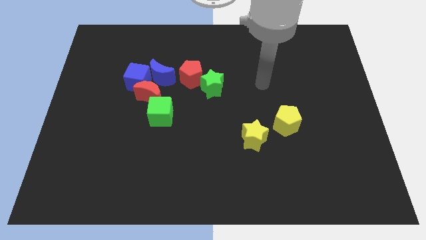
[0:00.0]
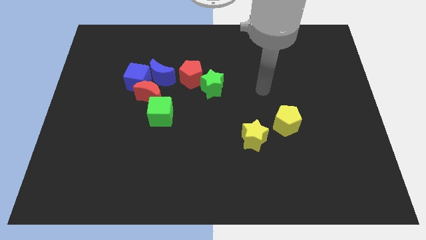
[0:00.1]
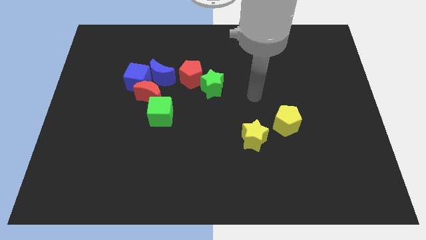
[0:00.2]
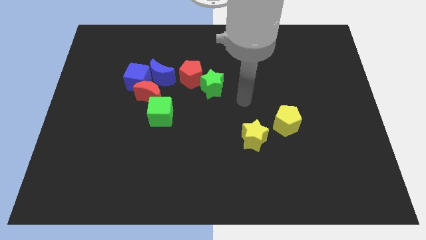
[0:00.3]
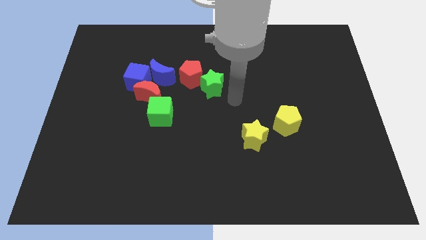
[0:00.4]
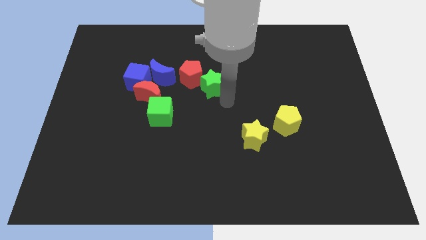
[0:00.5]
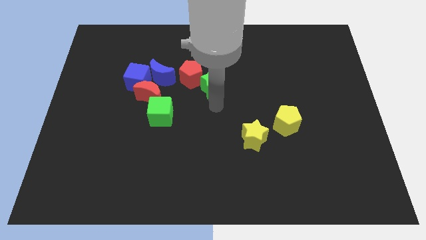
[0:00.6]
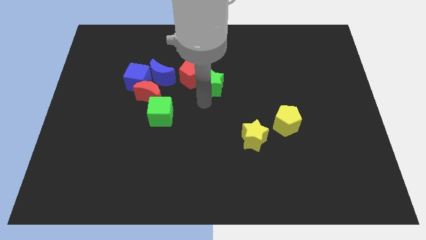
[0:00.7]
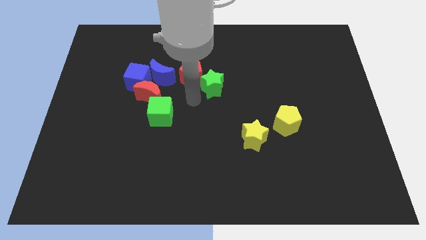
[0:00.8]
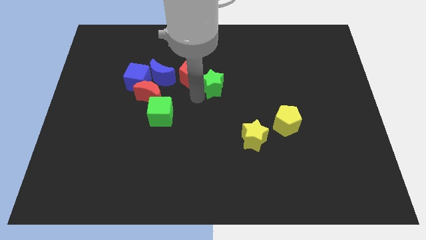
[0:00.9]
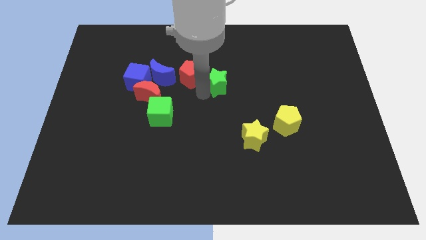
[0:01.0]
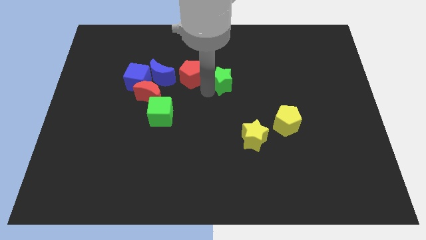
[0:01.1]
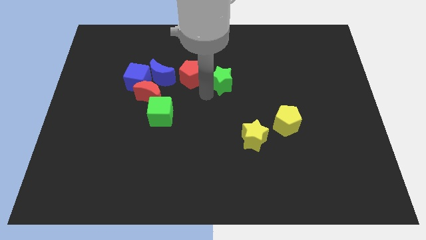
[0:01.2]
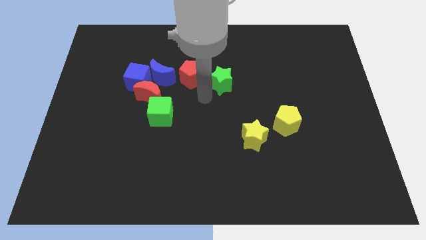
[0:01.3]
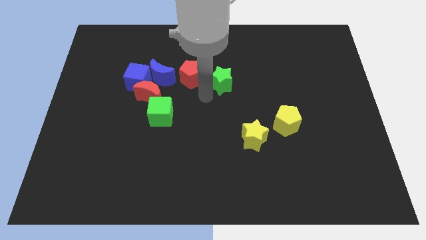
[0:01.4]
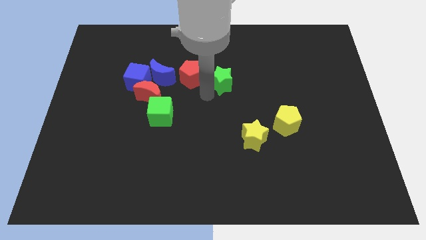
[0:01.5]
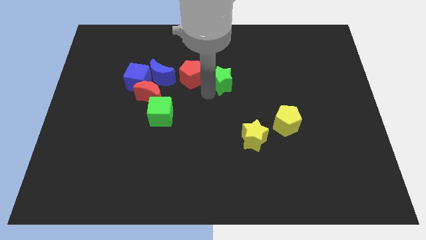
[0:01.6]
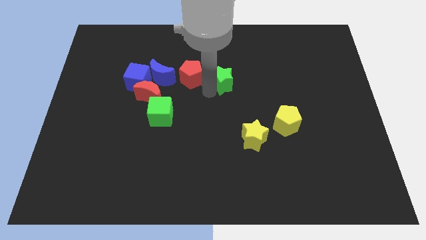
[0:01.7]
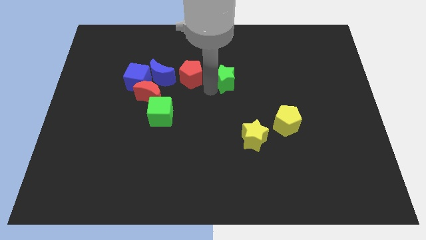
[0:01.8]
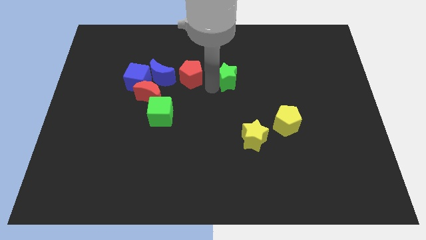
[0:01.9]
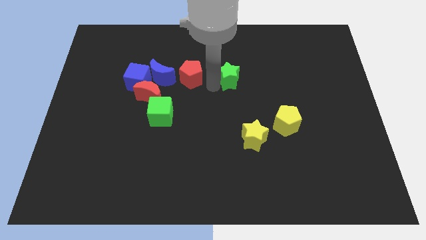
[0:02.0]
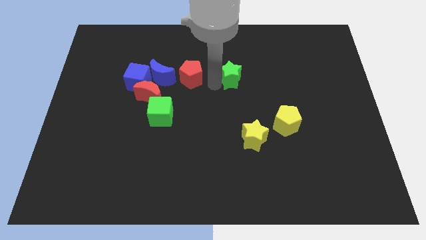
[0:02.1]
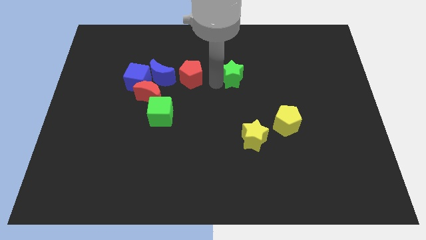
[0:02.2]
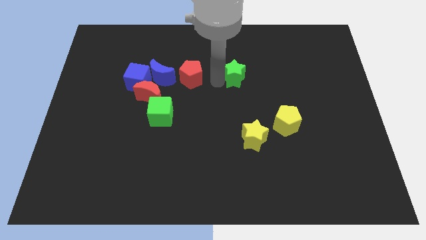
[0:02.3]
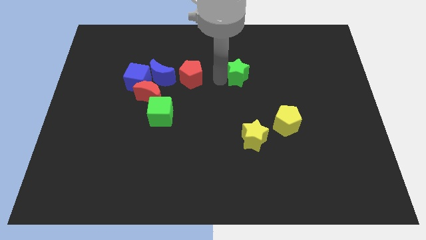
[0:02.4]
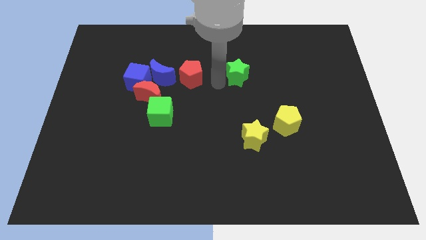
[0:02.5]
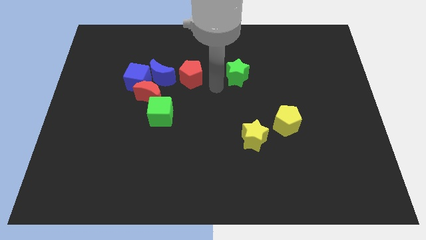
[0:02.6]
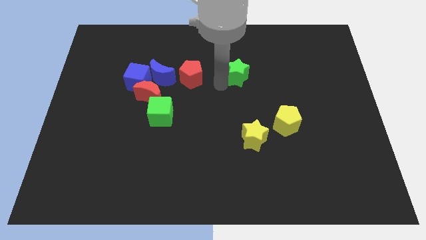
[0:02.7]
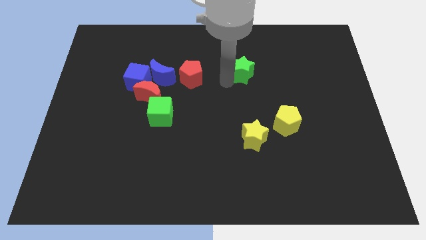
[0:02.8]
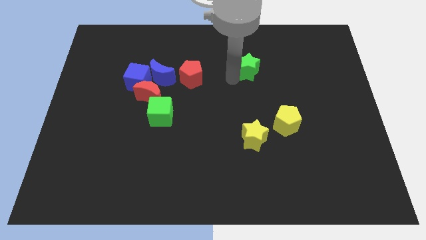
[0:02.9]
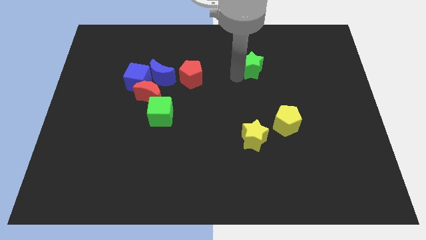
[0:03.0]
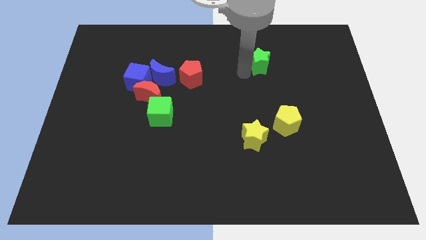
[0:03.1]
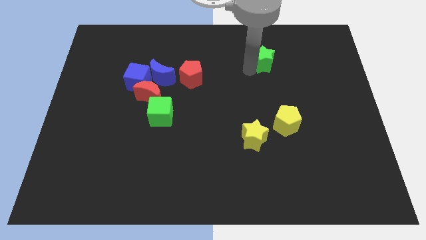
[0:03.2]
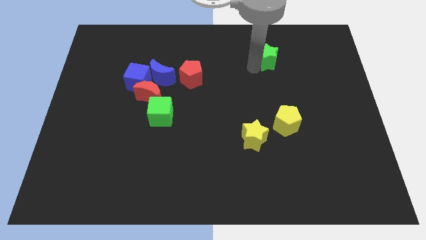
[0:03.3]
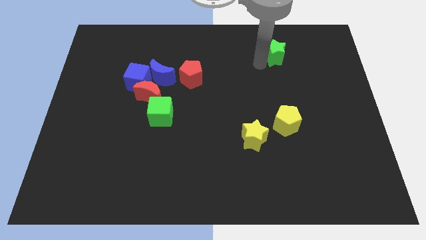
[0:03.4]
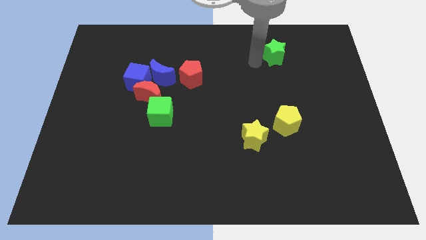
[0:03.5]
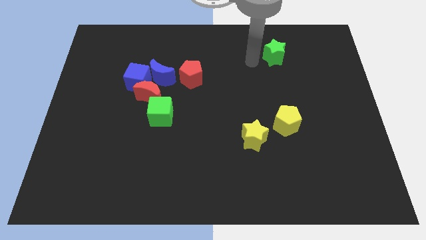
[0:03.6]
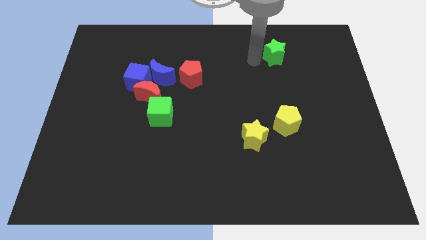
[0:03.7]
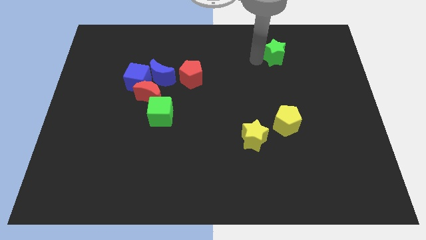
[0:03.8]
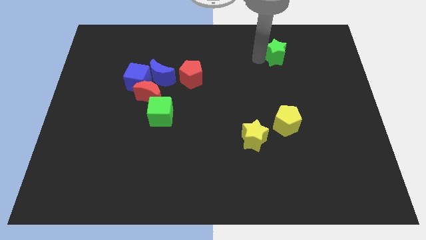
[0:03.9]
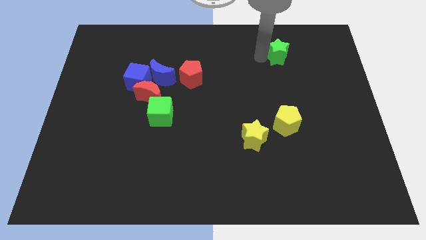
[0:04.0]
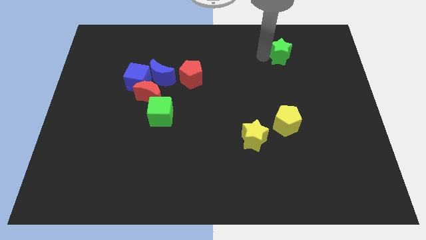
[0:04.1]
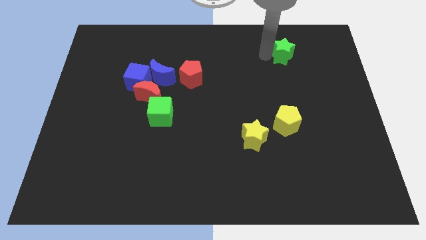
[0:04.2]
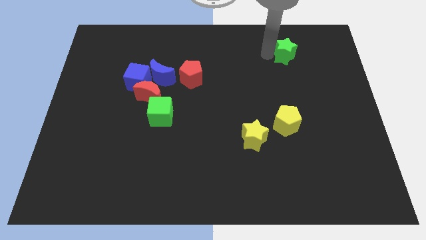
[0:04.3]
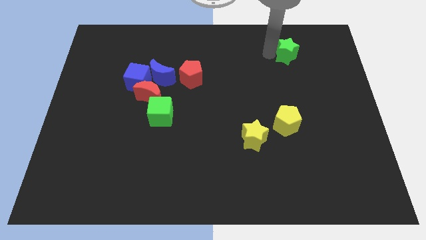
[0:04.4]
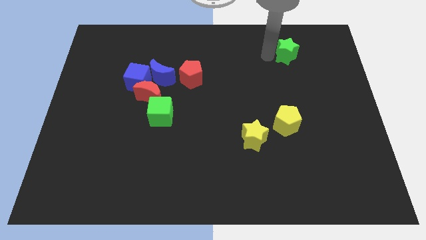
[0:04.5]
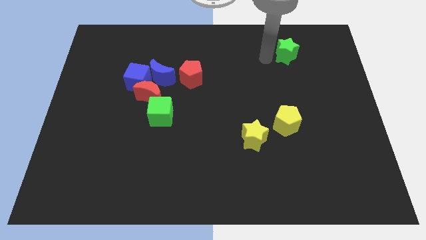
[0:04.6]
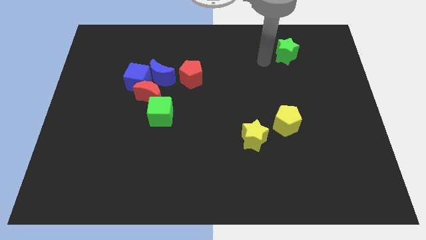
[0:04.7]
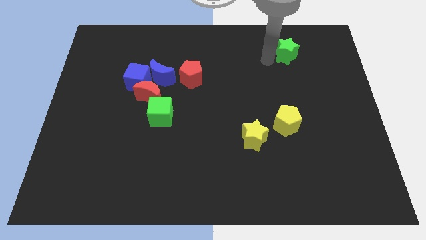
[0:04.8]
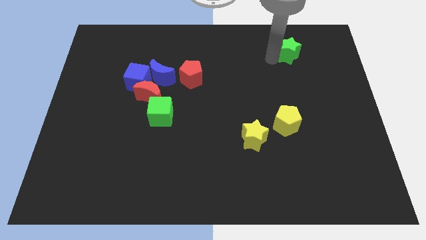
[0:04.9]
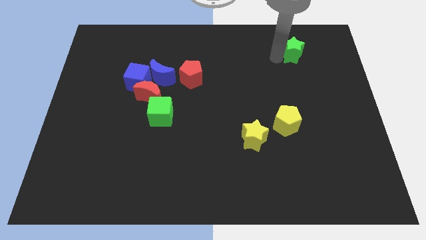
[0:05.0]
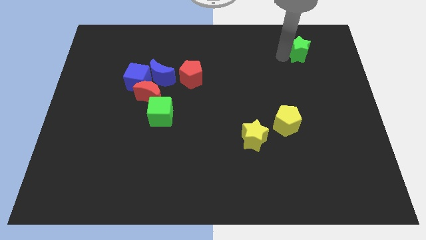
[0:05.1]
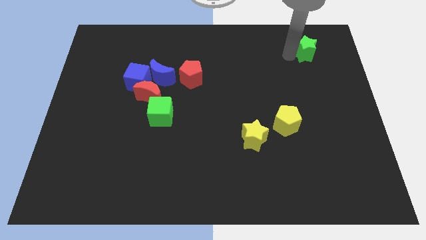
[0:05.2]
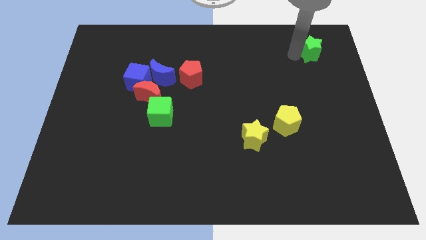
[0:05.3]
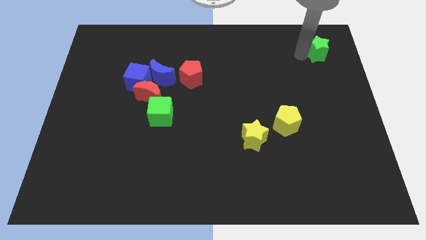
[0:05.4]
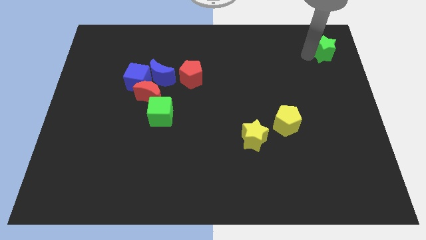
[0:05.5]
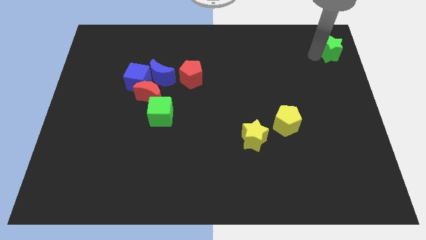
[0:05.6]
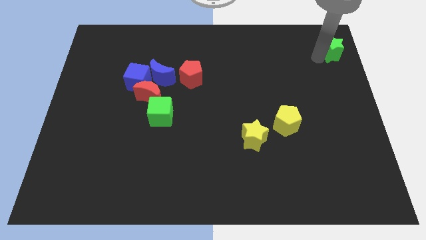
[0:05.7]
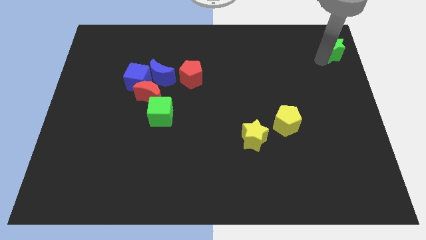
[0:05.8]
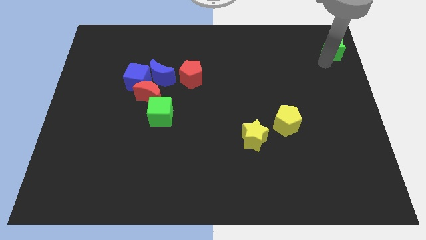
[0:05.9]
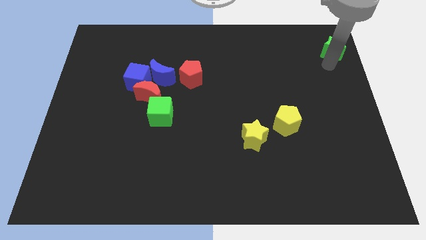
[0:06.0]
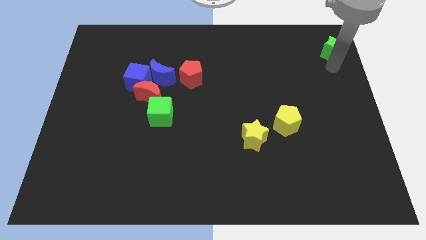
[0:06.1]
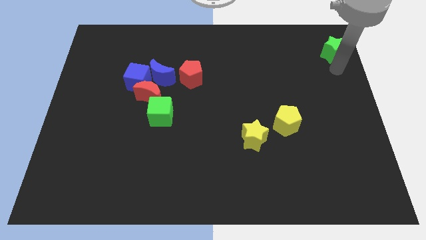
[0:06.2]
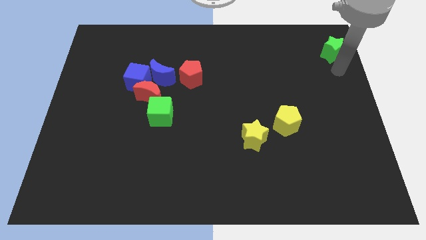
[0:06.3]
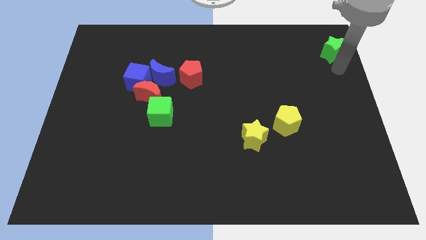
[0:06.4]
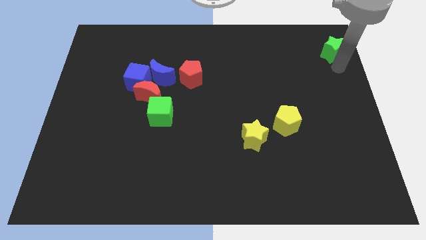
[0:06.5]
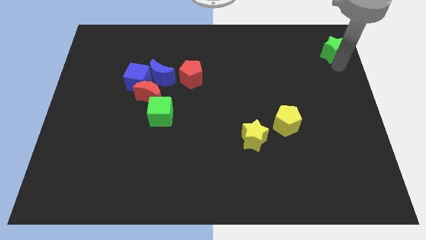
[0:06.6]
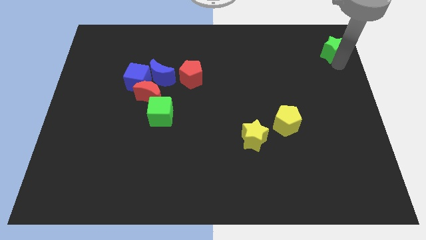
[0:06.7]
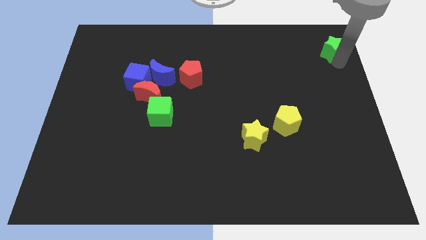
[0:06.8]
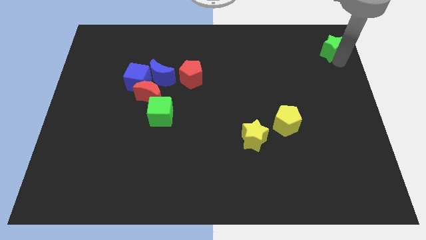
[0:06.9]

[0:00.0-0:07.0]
move the green star to the top right corner

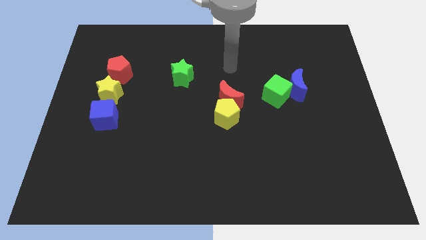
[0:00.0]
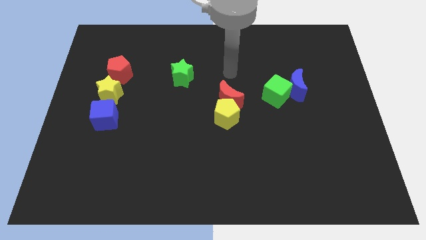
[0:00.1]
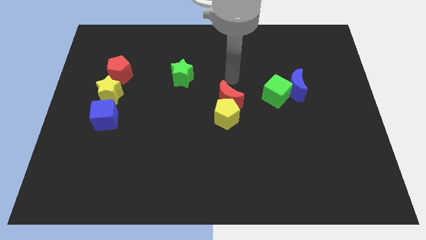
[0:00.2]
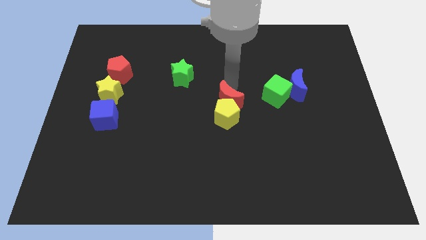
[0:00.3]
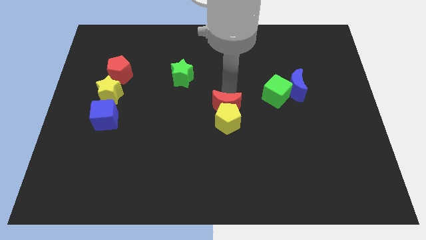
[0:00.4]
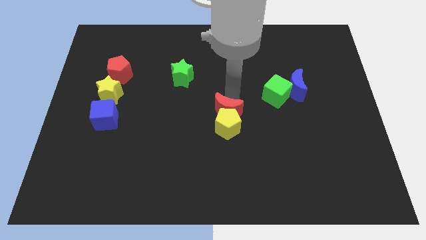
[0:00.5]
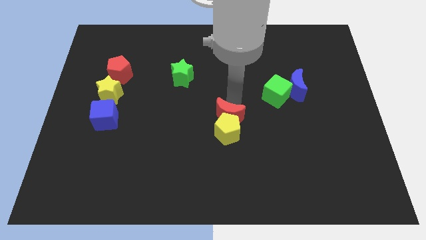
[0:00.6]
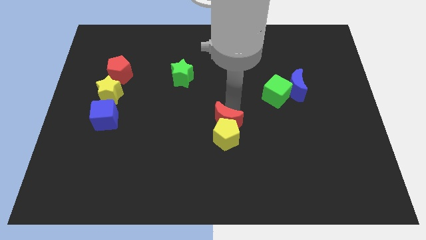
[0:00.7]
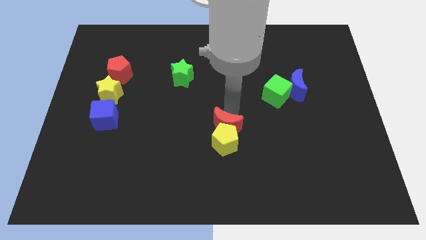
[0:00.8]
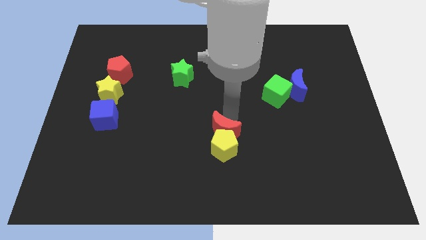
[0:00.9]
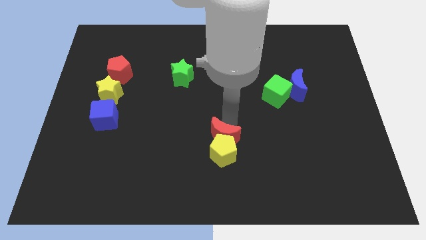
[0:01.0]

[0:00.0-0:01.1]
slide the yellow pentagon to the bottom
